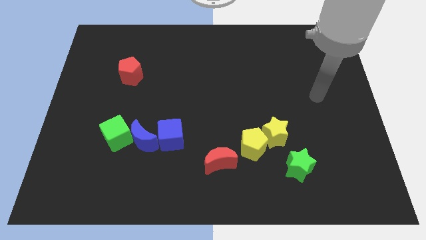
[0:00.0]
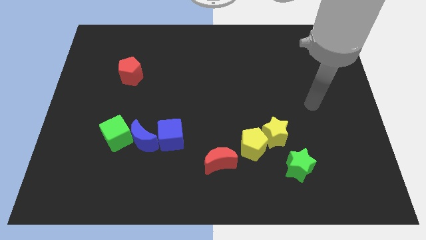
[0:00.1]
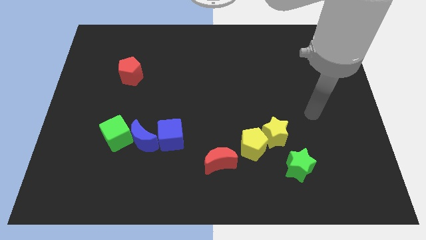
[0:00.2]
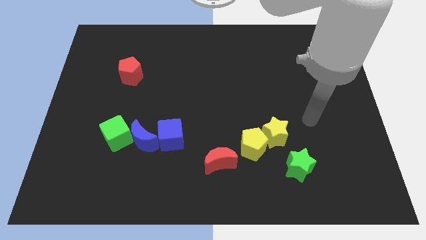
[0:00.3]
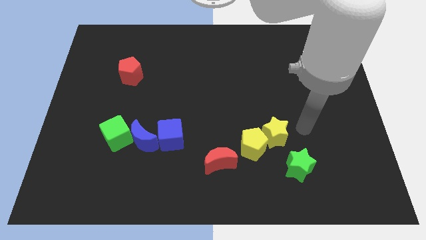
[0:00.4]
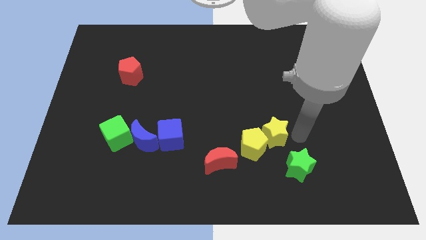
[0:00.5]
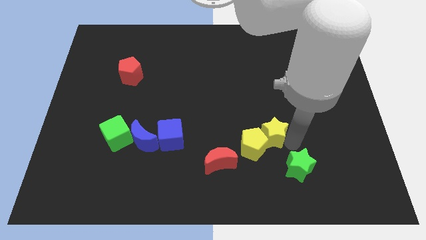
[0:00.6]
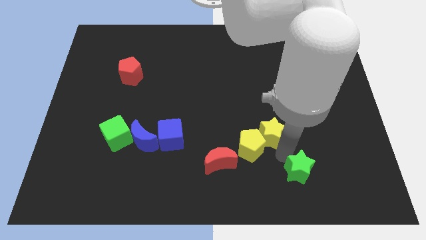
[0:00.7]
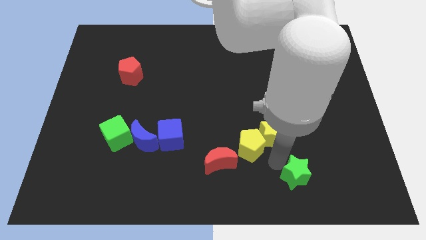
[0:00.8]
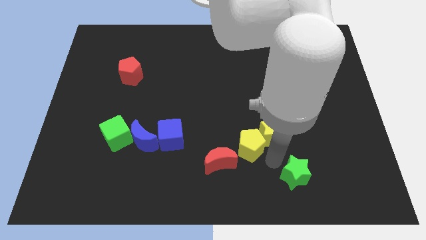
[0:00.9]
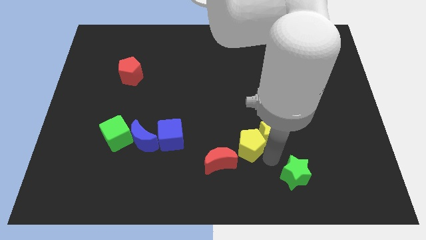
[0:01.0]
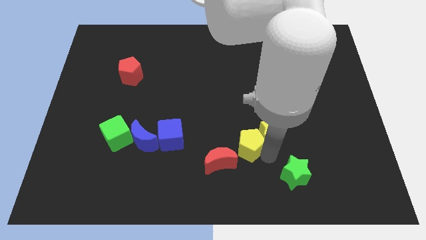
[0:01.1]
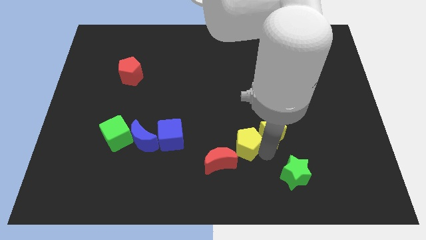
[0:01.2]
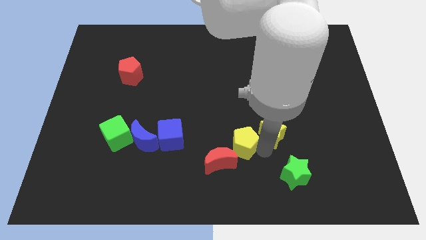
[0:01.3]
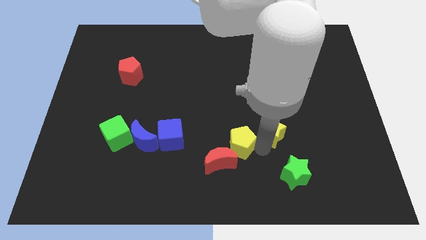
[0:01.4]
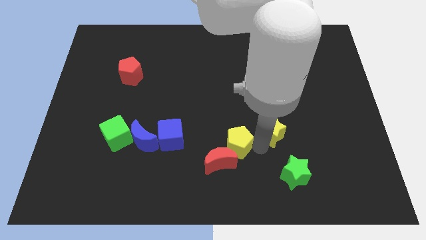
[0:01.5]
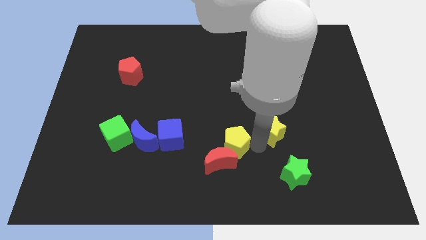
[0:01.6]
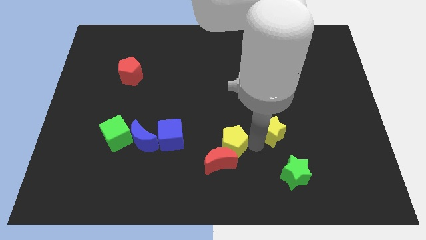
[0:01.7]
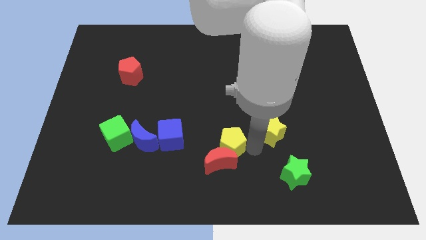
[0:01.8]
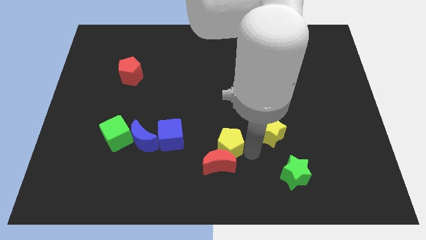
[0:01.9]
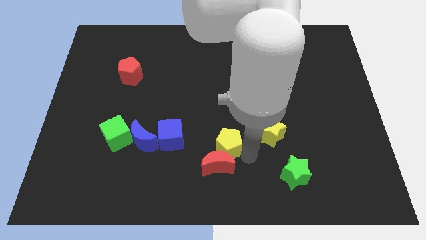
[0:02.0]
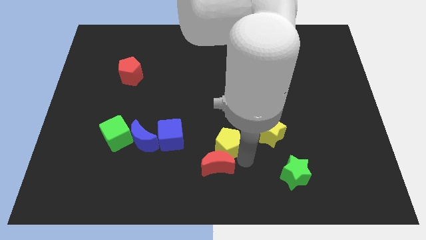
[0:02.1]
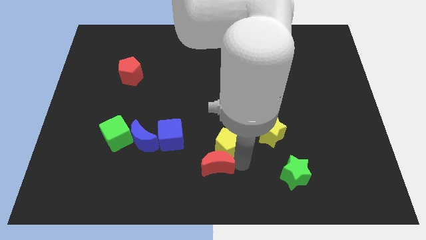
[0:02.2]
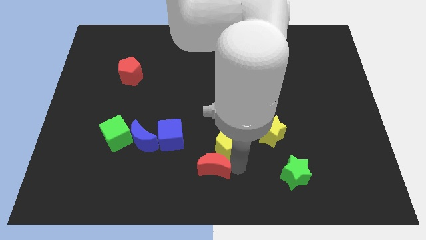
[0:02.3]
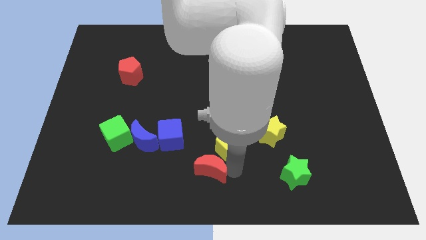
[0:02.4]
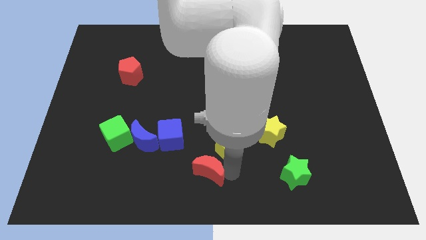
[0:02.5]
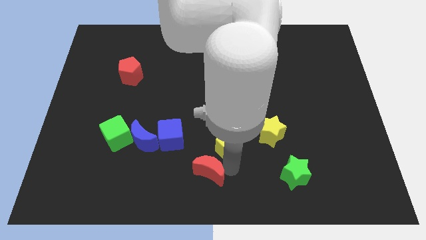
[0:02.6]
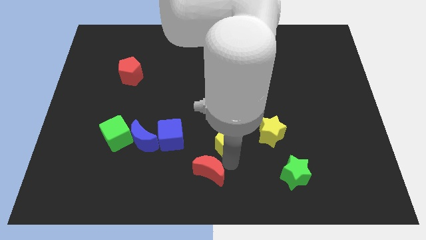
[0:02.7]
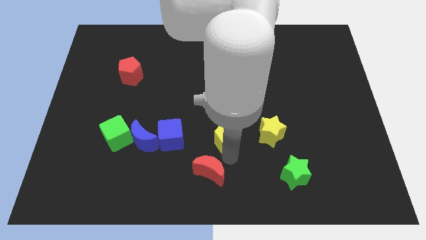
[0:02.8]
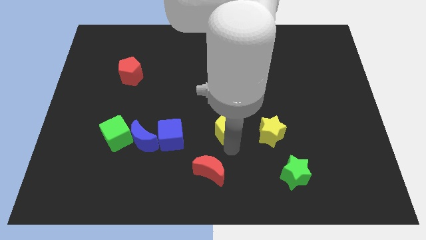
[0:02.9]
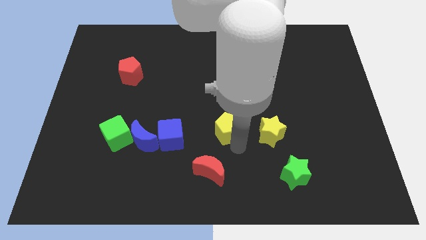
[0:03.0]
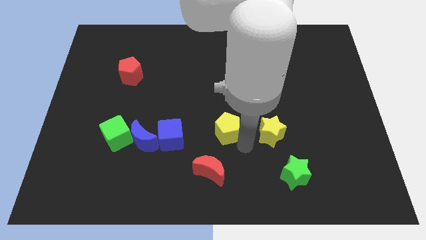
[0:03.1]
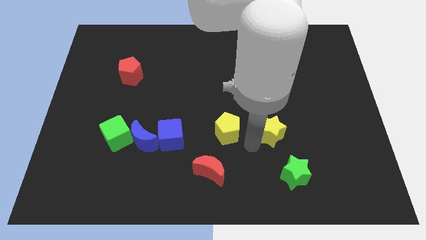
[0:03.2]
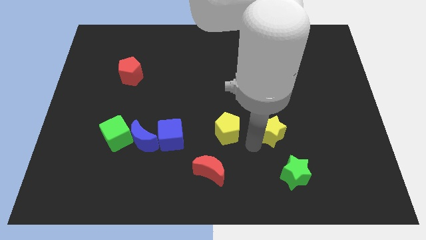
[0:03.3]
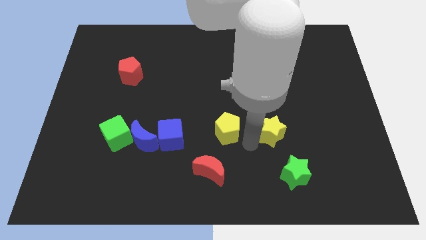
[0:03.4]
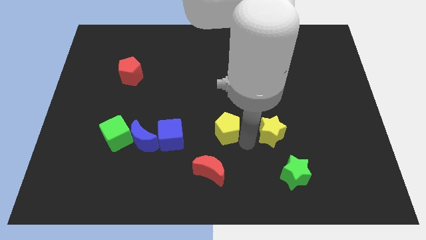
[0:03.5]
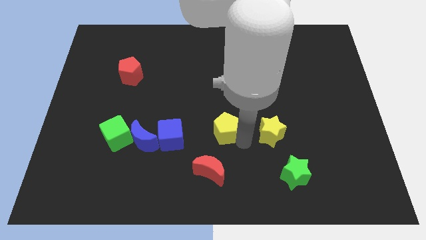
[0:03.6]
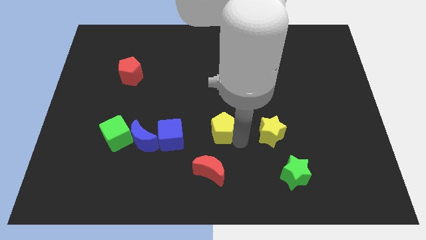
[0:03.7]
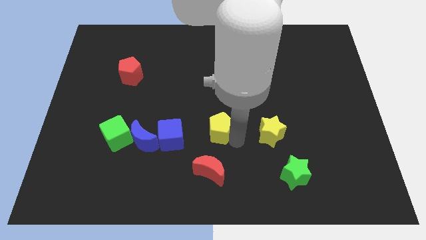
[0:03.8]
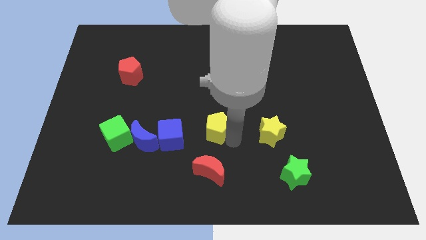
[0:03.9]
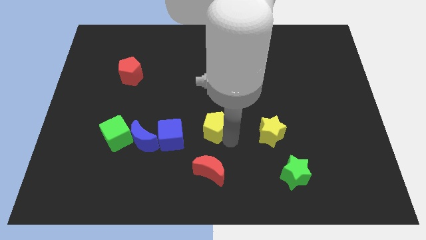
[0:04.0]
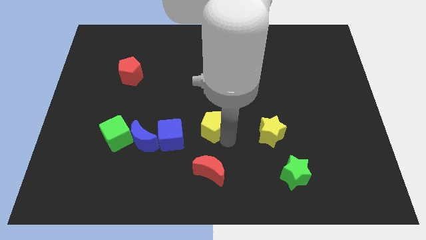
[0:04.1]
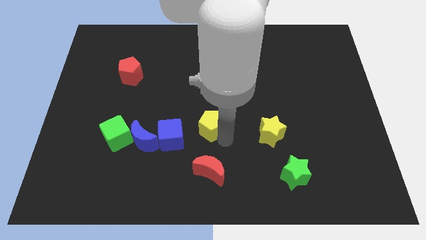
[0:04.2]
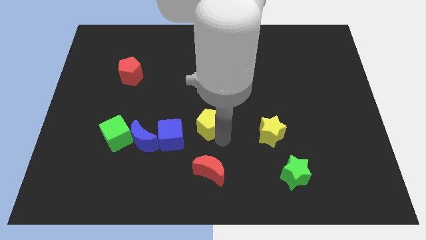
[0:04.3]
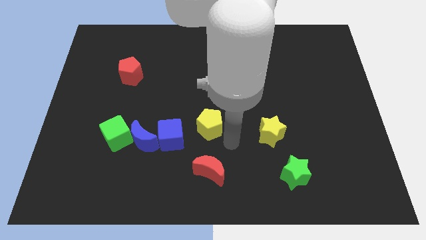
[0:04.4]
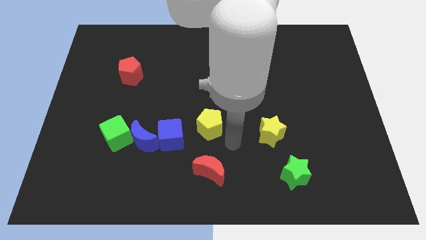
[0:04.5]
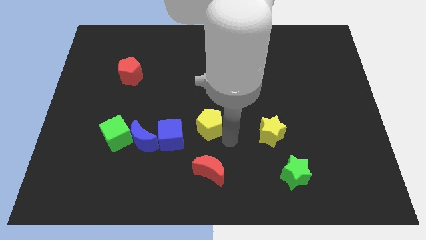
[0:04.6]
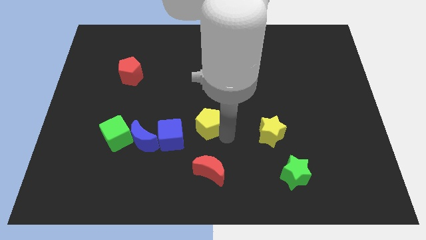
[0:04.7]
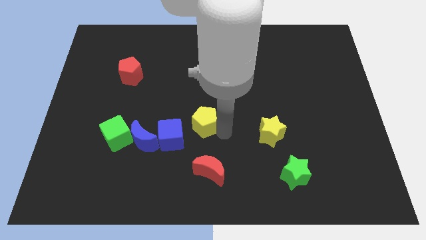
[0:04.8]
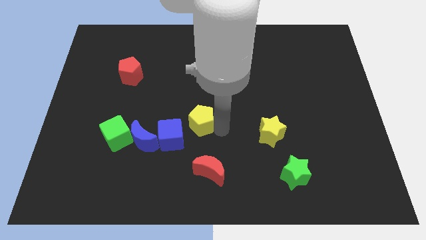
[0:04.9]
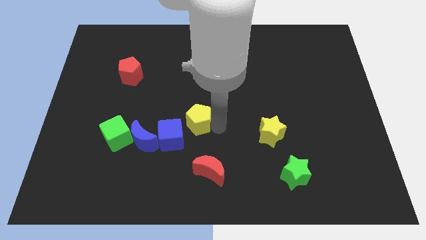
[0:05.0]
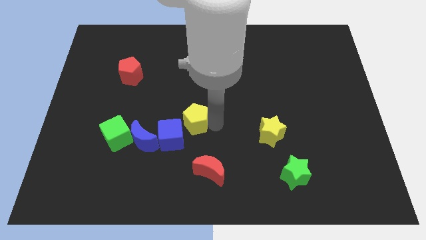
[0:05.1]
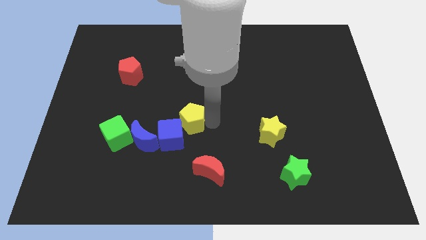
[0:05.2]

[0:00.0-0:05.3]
put the yellow pentagon to the top side of the blue cube

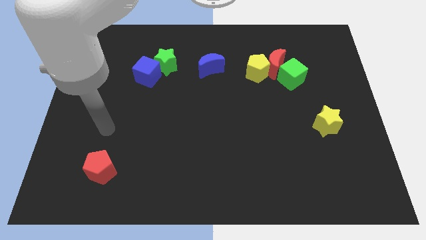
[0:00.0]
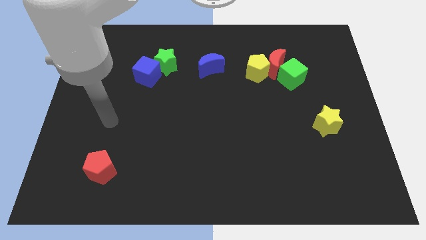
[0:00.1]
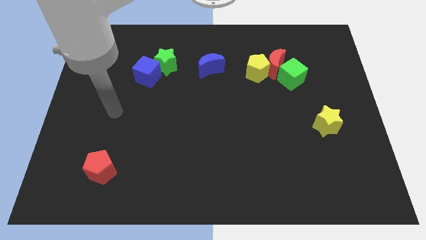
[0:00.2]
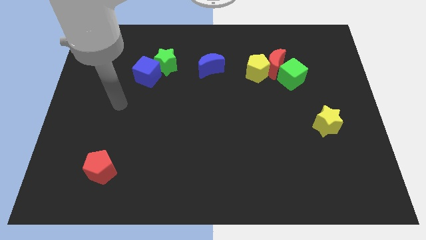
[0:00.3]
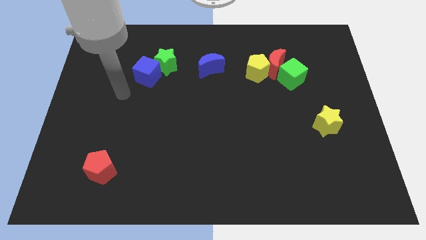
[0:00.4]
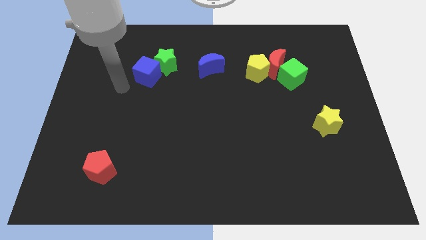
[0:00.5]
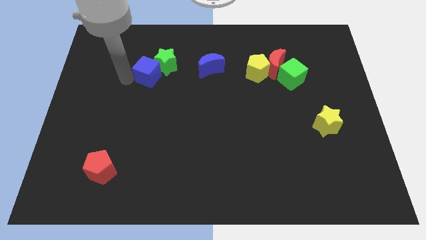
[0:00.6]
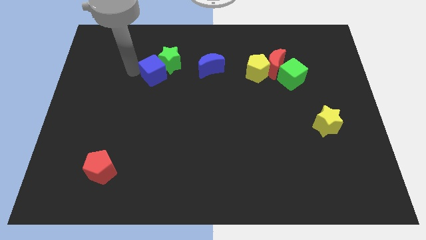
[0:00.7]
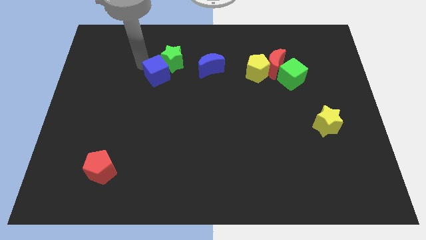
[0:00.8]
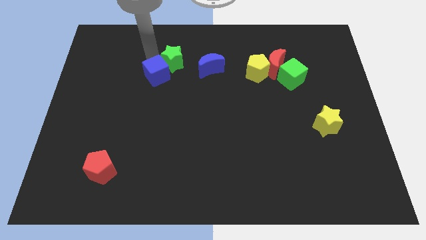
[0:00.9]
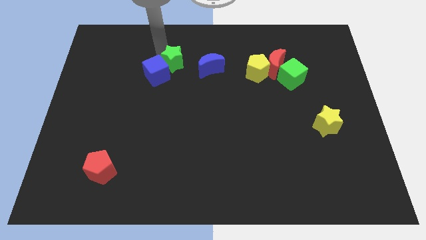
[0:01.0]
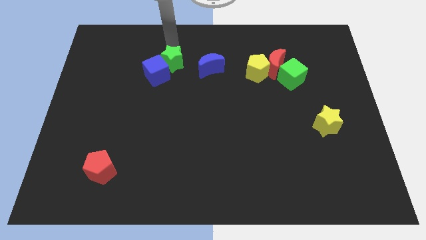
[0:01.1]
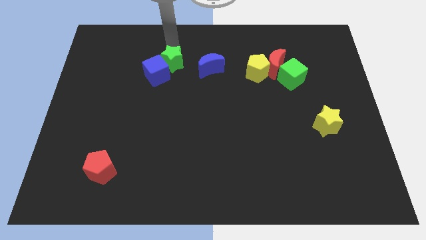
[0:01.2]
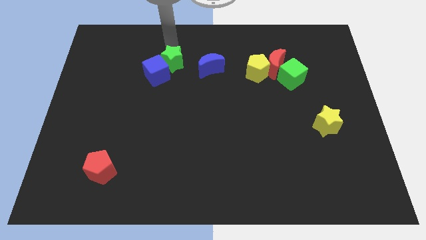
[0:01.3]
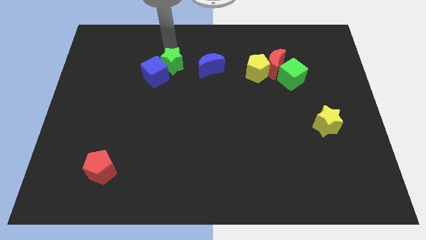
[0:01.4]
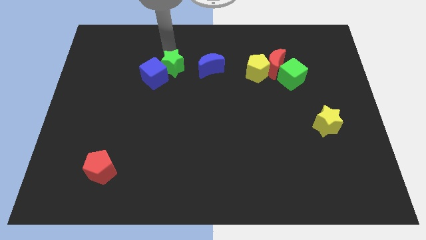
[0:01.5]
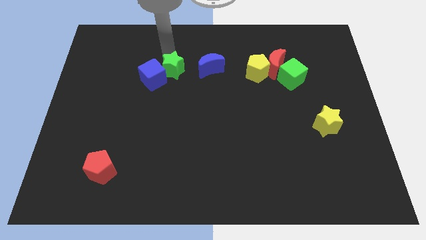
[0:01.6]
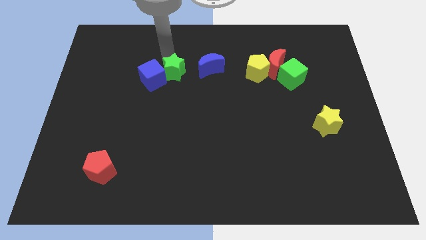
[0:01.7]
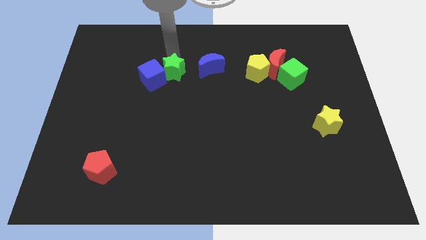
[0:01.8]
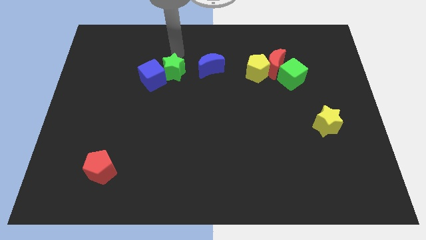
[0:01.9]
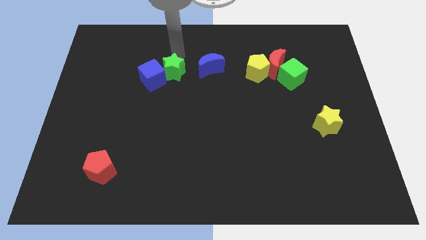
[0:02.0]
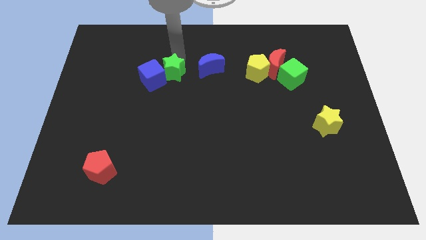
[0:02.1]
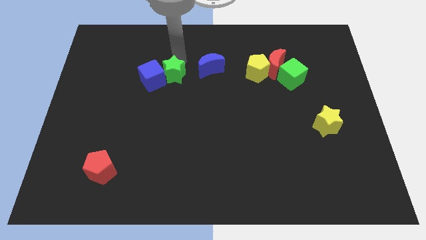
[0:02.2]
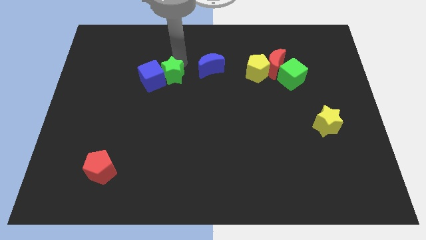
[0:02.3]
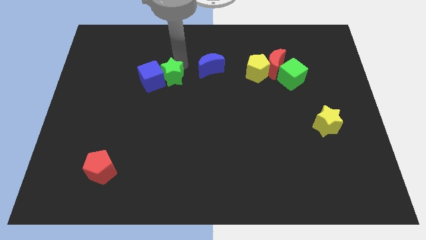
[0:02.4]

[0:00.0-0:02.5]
move the green star diagonally down and to the right of the blue cube
